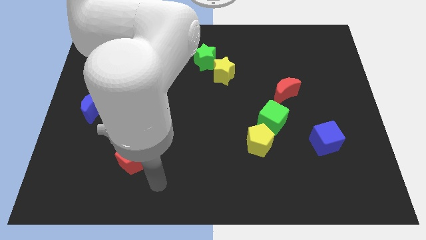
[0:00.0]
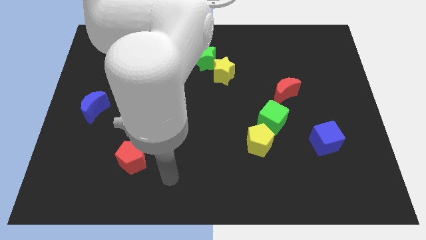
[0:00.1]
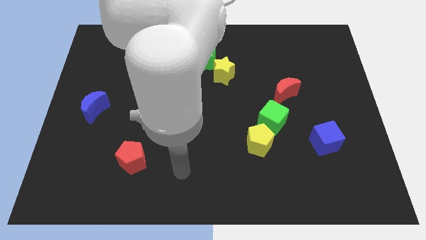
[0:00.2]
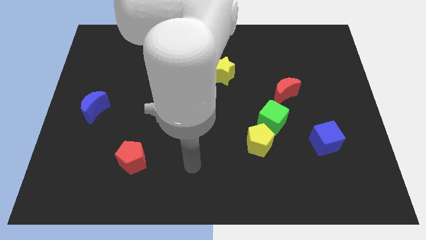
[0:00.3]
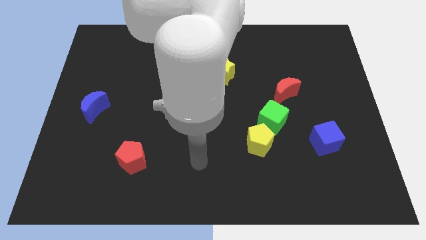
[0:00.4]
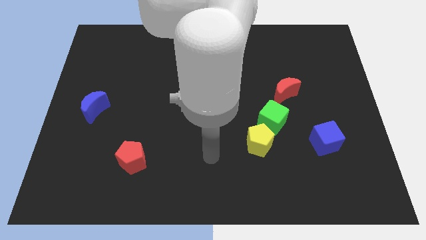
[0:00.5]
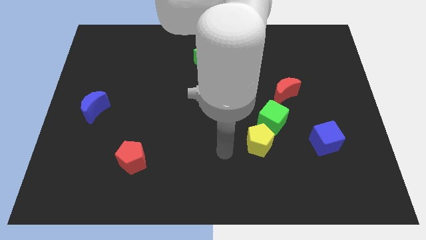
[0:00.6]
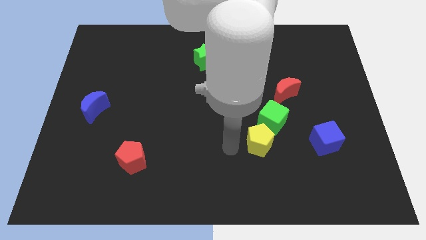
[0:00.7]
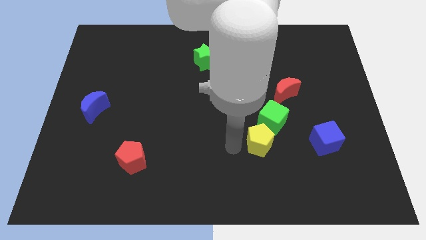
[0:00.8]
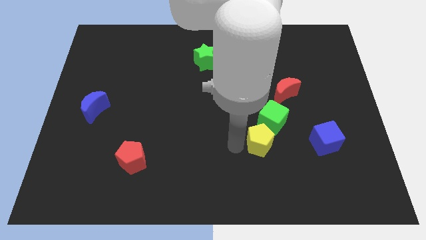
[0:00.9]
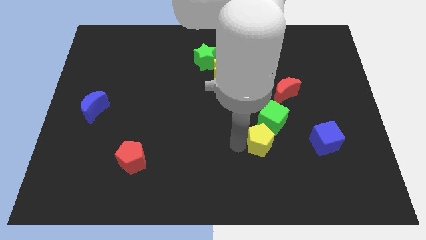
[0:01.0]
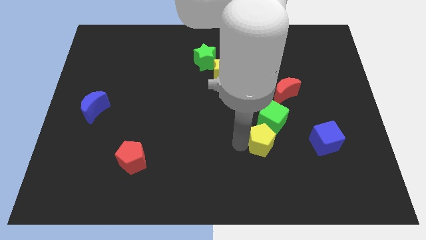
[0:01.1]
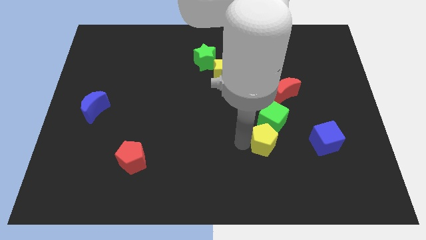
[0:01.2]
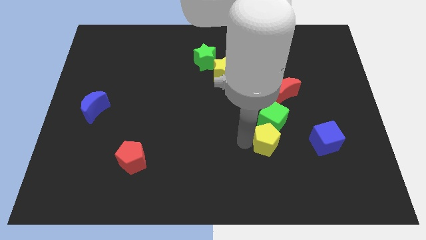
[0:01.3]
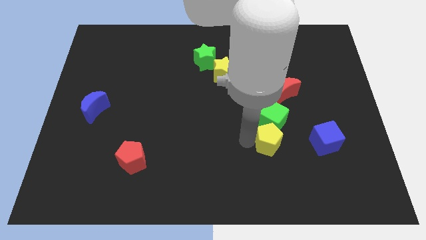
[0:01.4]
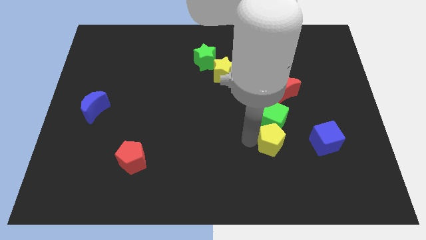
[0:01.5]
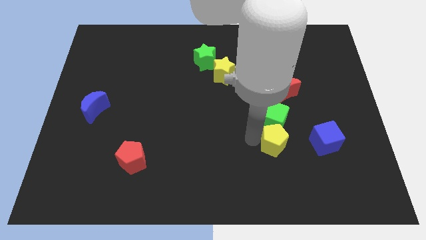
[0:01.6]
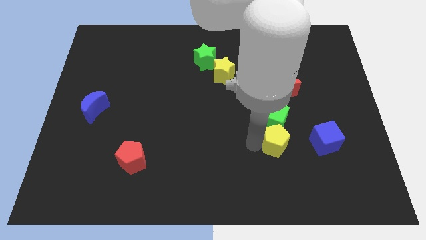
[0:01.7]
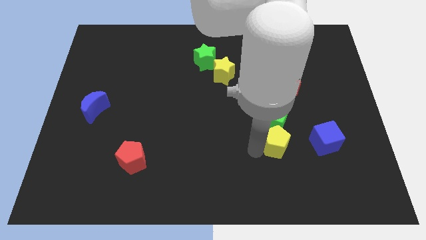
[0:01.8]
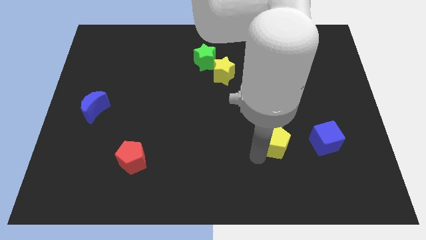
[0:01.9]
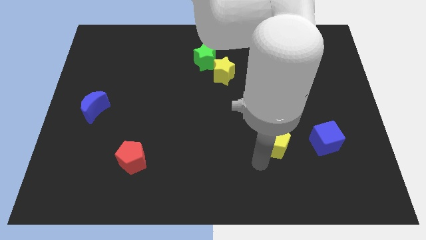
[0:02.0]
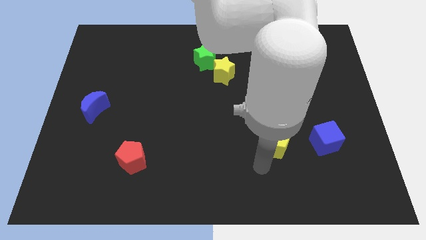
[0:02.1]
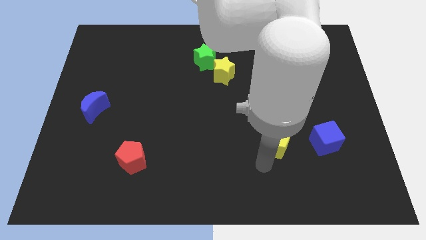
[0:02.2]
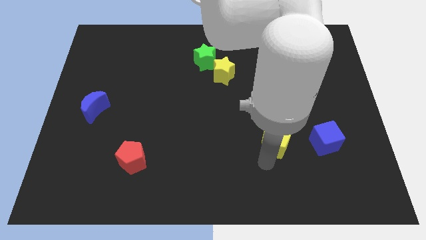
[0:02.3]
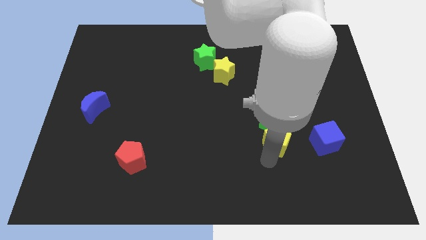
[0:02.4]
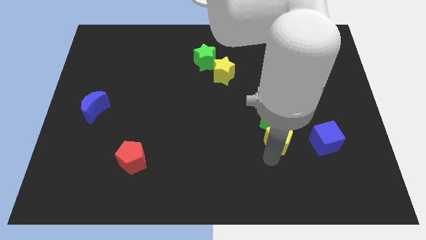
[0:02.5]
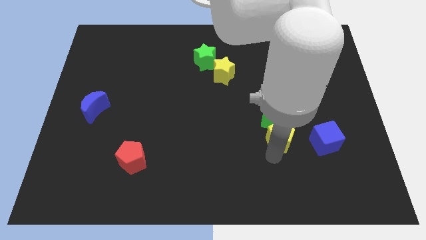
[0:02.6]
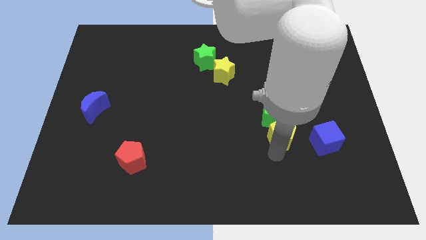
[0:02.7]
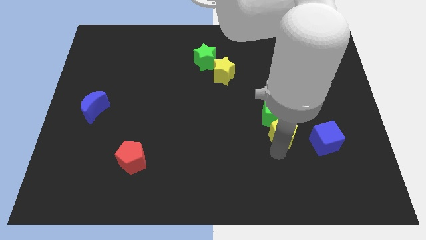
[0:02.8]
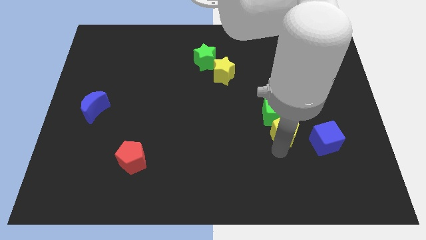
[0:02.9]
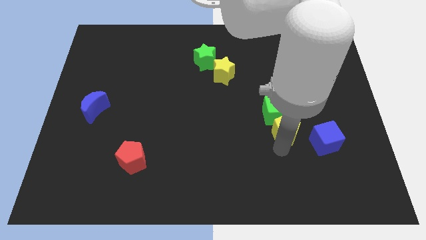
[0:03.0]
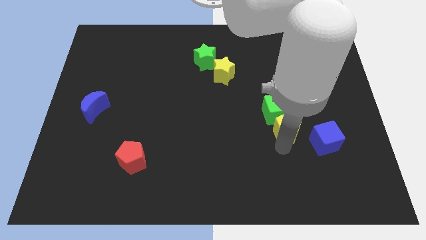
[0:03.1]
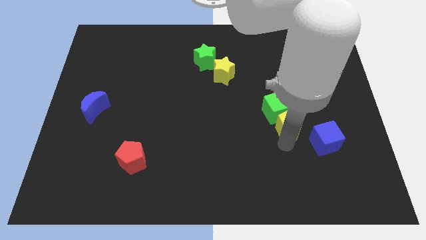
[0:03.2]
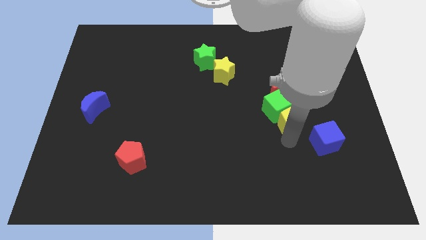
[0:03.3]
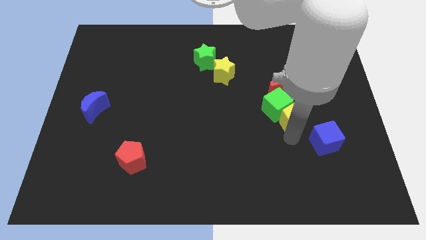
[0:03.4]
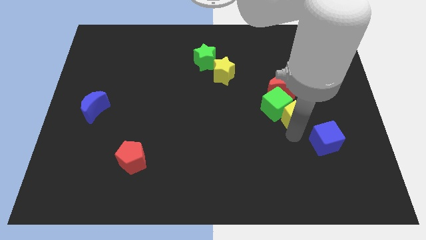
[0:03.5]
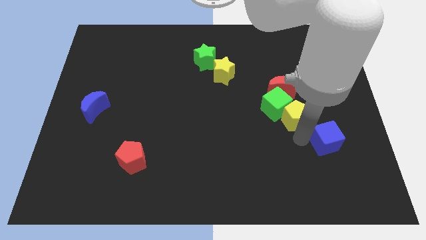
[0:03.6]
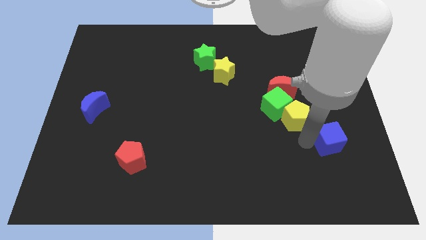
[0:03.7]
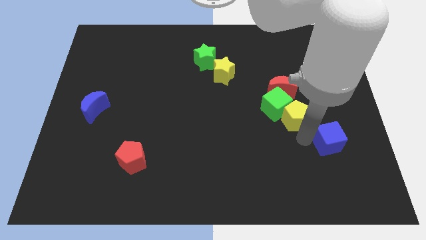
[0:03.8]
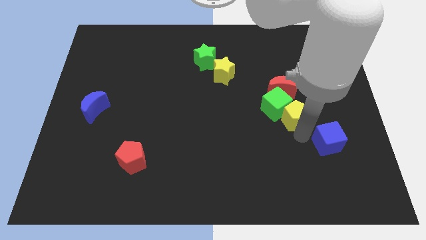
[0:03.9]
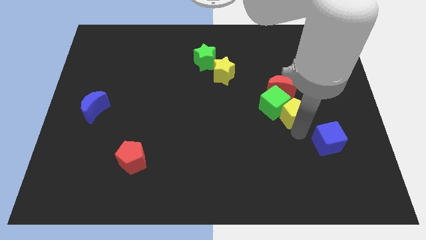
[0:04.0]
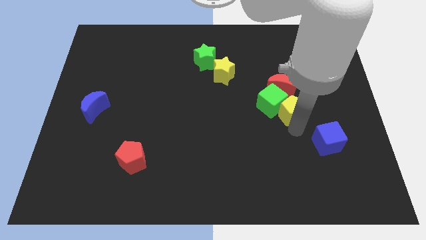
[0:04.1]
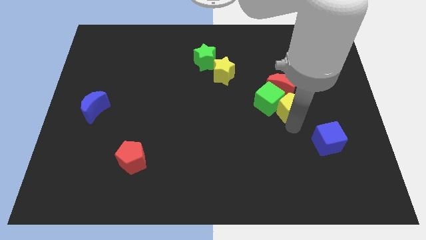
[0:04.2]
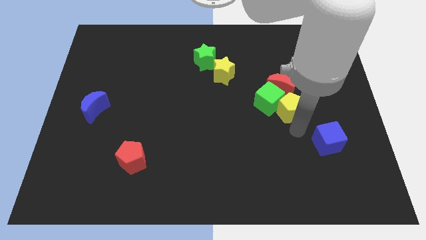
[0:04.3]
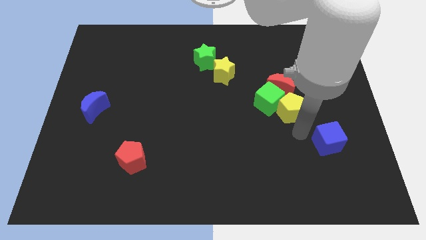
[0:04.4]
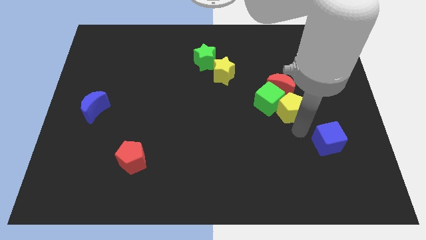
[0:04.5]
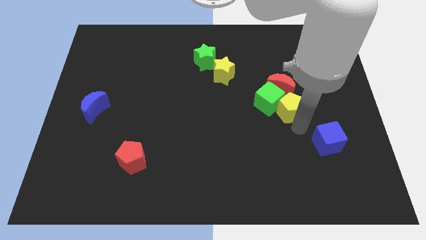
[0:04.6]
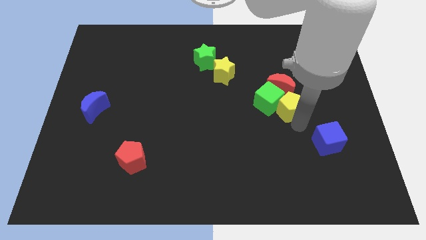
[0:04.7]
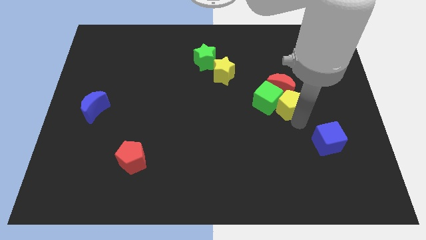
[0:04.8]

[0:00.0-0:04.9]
slide the yellow pentagon towards the red moon

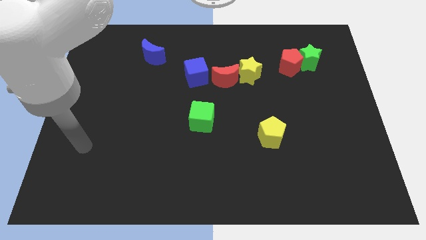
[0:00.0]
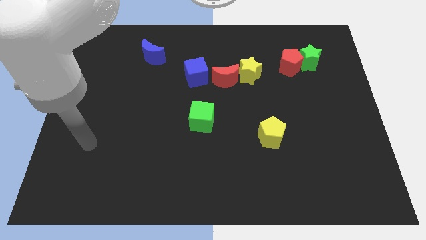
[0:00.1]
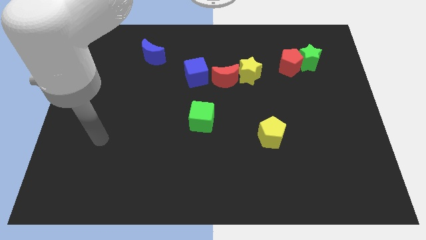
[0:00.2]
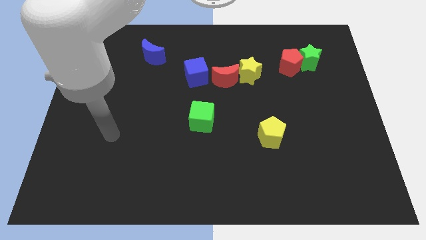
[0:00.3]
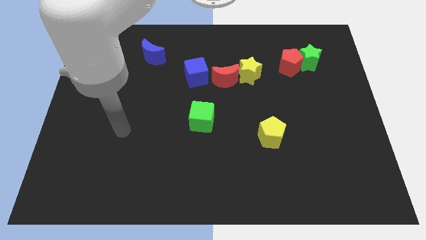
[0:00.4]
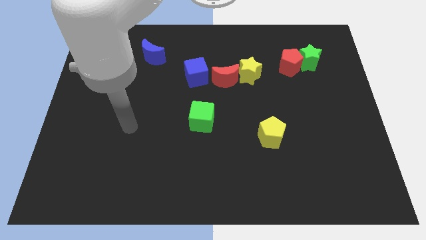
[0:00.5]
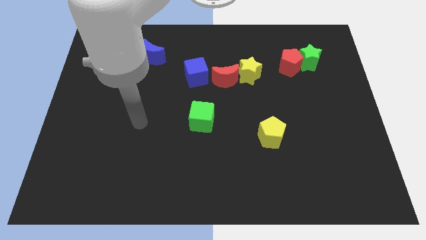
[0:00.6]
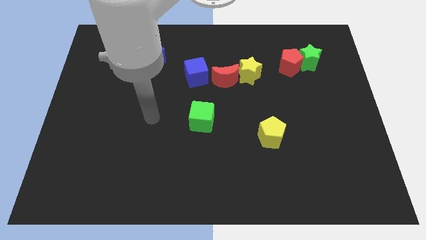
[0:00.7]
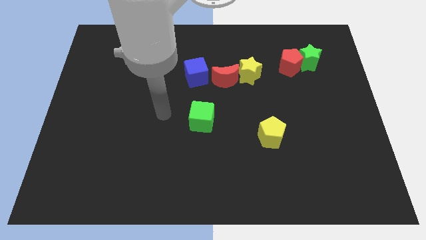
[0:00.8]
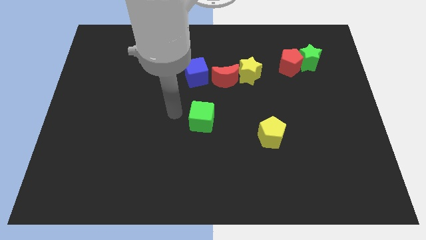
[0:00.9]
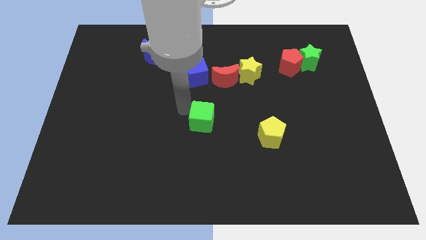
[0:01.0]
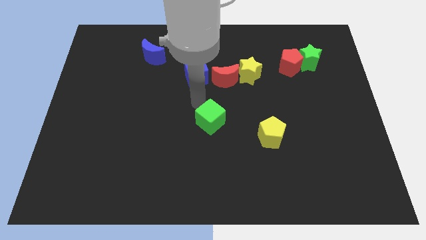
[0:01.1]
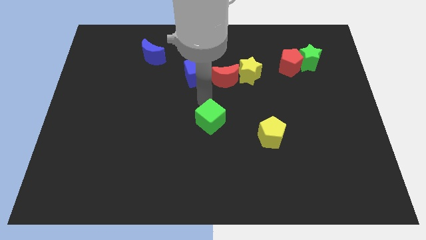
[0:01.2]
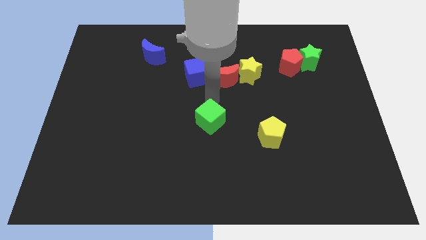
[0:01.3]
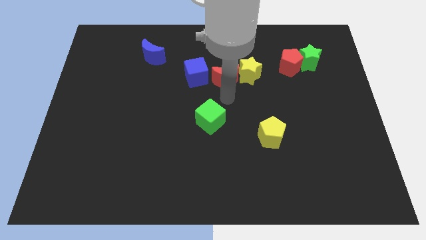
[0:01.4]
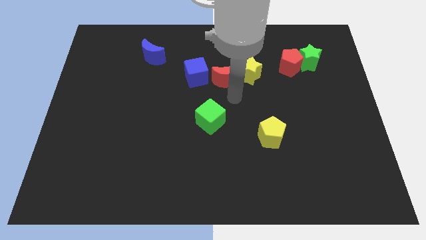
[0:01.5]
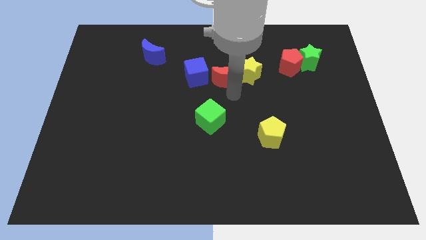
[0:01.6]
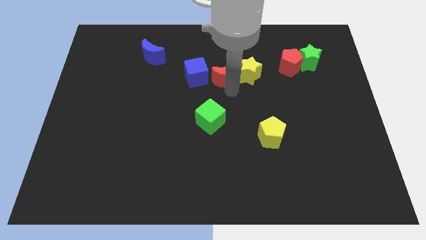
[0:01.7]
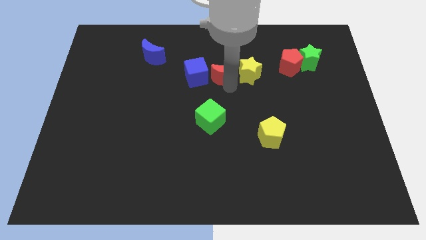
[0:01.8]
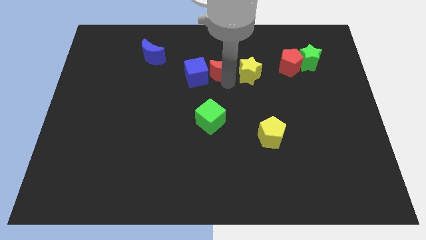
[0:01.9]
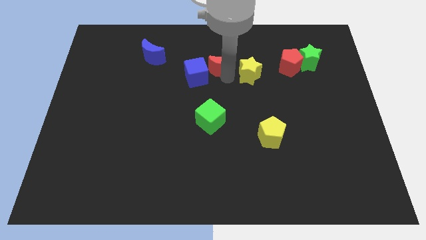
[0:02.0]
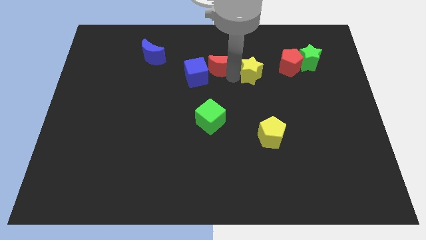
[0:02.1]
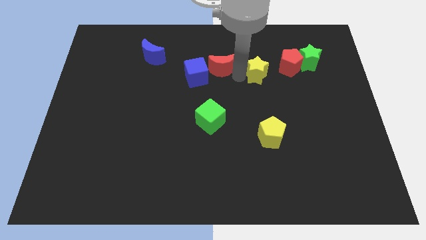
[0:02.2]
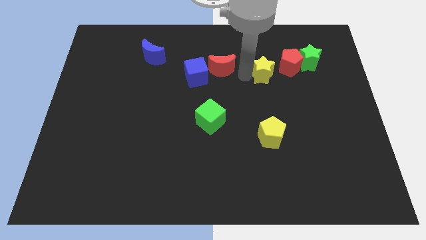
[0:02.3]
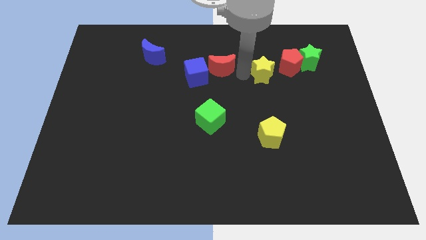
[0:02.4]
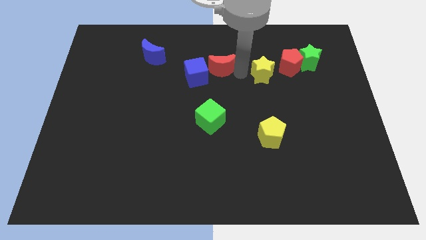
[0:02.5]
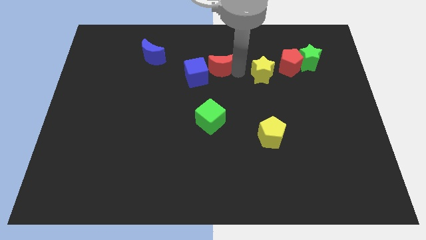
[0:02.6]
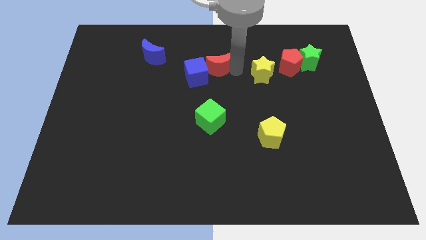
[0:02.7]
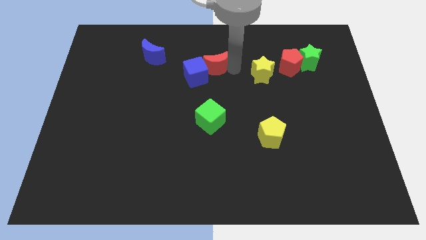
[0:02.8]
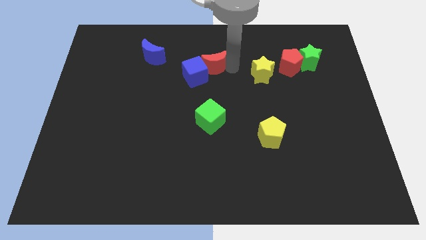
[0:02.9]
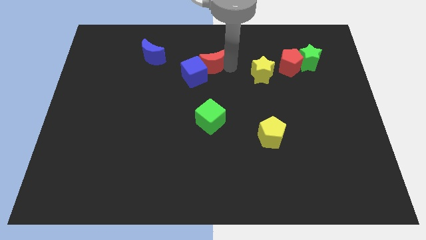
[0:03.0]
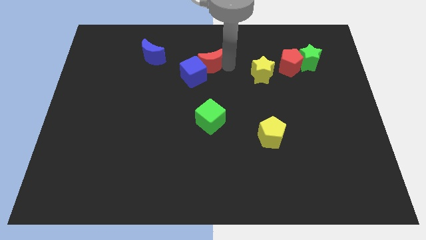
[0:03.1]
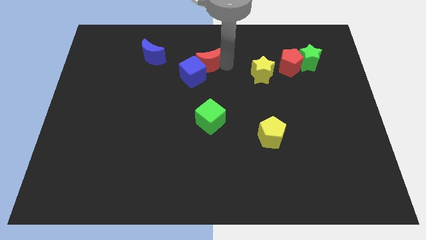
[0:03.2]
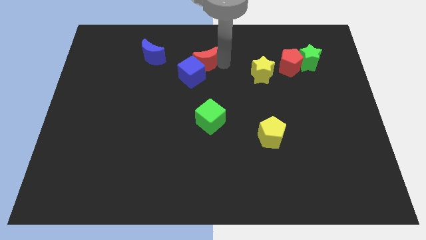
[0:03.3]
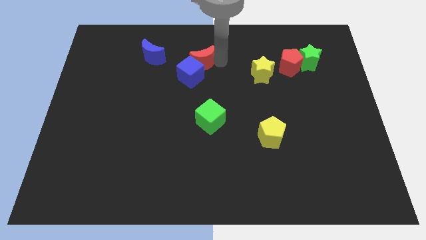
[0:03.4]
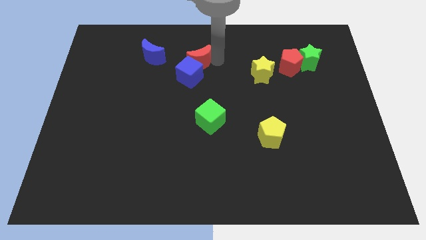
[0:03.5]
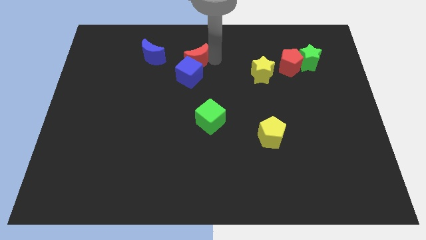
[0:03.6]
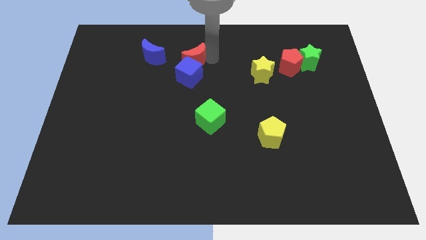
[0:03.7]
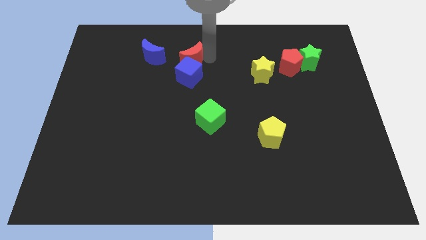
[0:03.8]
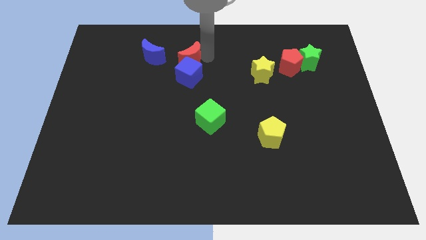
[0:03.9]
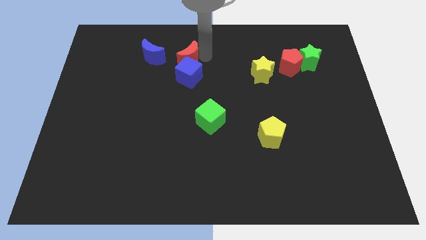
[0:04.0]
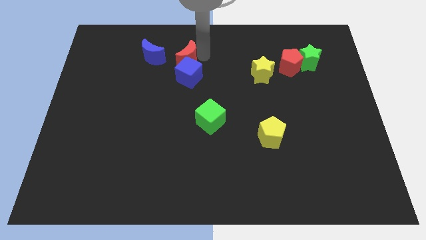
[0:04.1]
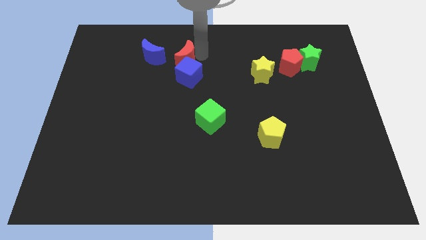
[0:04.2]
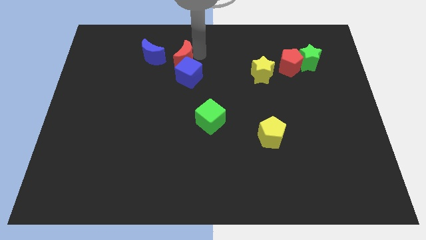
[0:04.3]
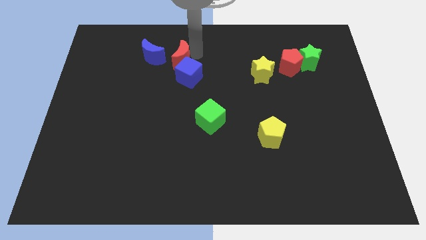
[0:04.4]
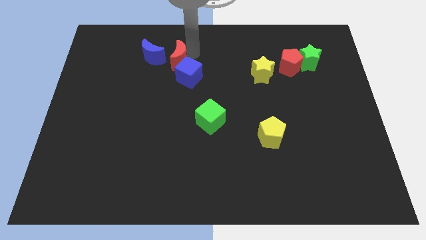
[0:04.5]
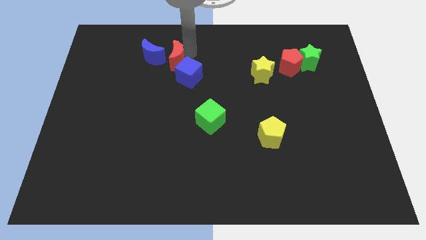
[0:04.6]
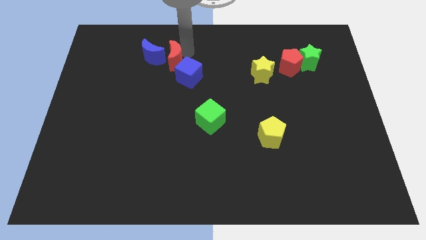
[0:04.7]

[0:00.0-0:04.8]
push the red moon towards the blue moon
